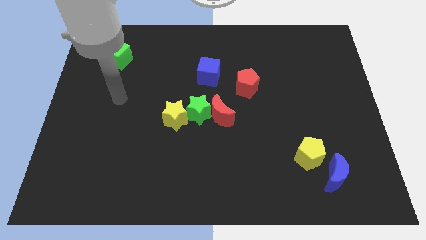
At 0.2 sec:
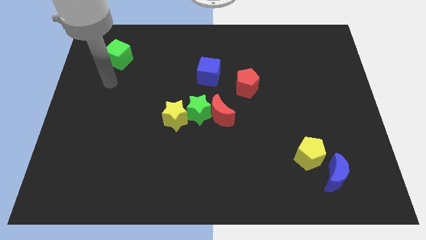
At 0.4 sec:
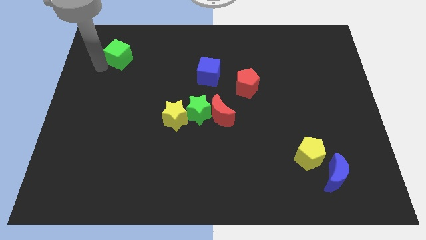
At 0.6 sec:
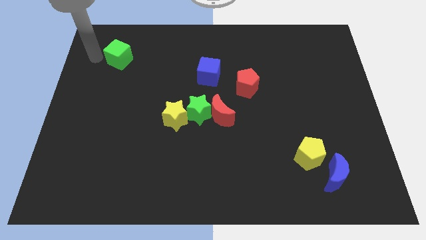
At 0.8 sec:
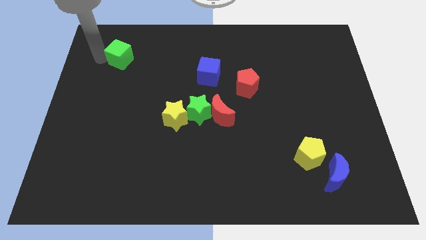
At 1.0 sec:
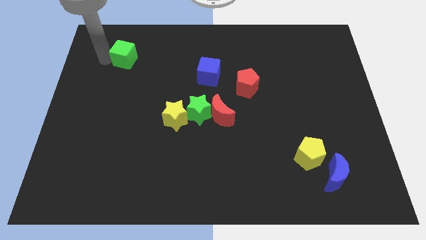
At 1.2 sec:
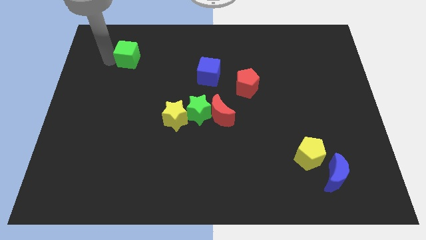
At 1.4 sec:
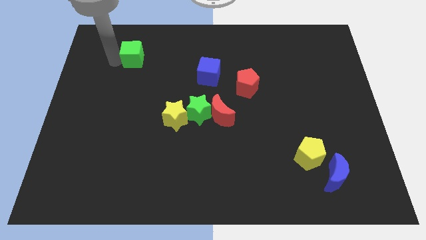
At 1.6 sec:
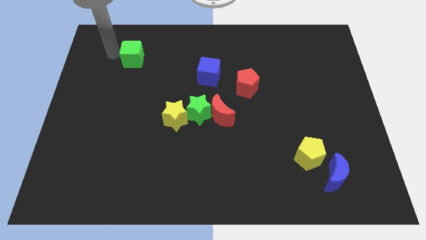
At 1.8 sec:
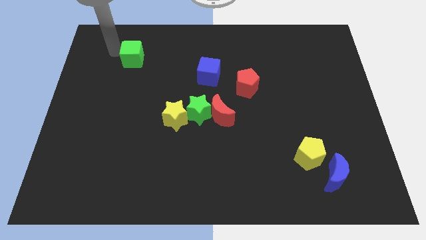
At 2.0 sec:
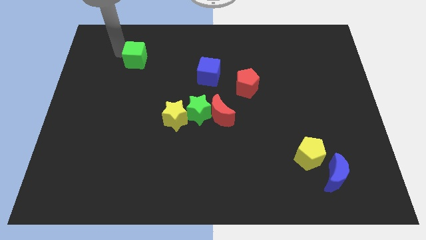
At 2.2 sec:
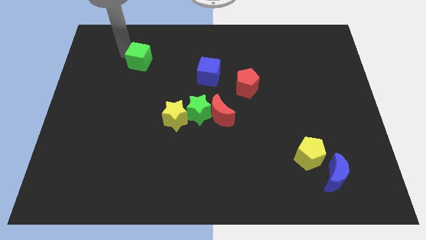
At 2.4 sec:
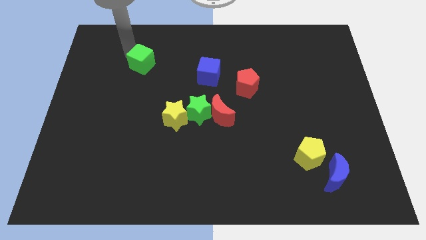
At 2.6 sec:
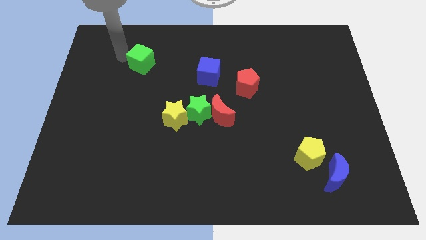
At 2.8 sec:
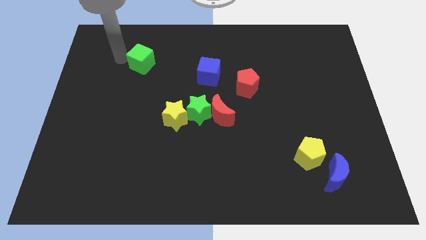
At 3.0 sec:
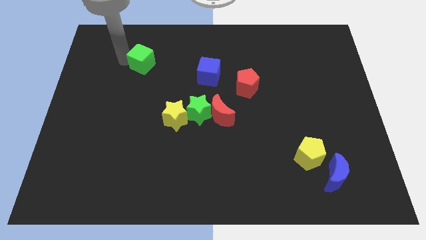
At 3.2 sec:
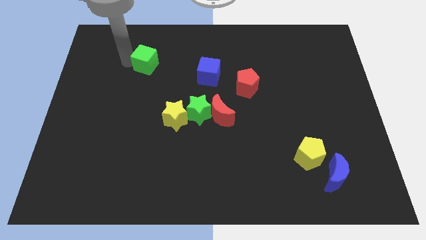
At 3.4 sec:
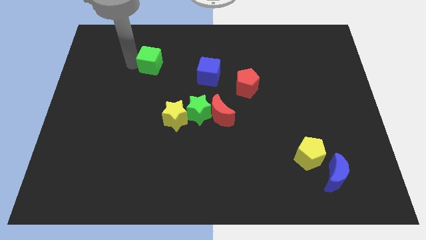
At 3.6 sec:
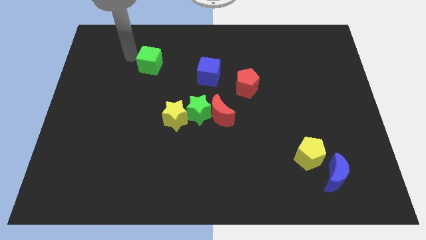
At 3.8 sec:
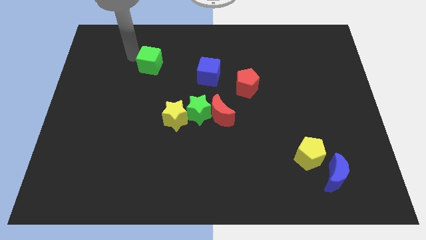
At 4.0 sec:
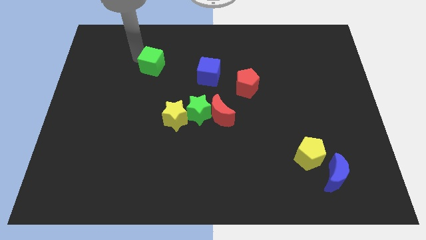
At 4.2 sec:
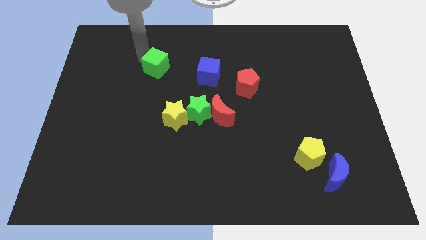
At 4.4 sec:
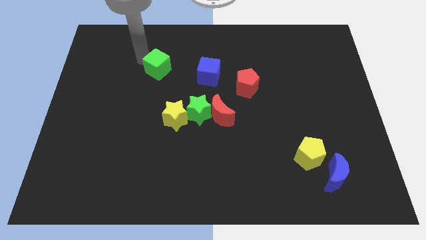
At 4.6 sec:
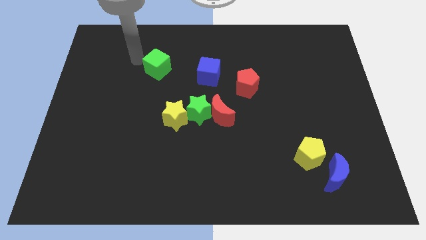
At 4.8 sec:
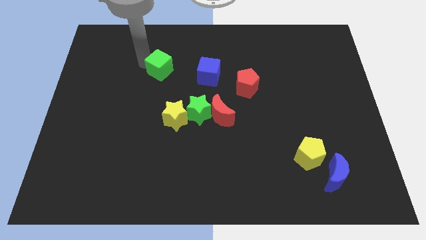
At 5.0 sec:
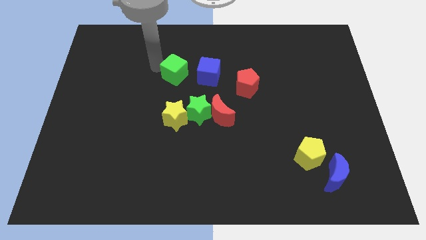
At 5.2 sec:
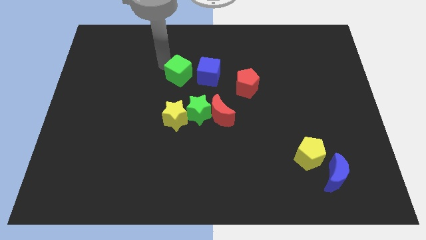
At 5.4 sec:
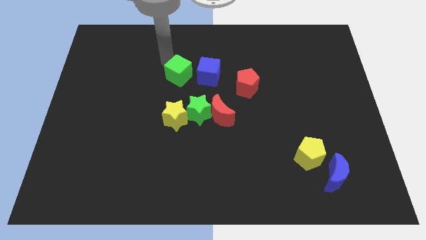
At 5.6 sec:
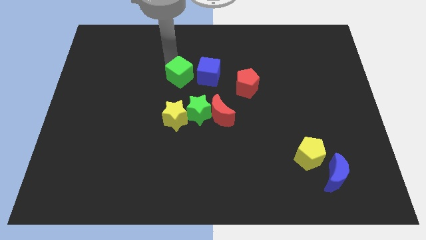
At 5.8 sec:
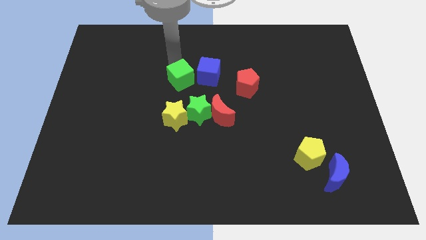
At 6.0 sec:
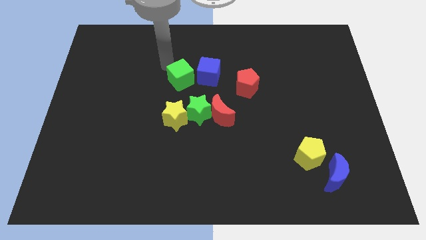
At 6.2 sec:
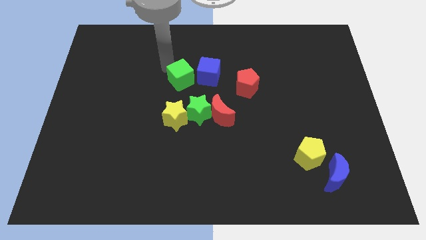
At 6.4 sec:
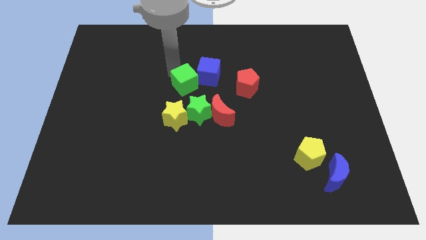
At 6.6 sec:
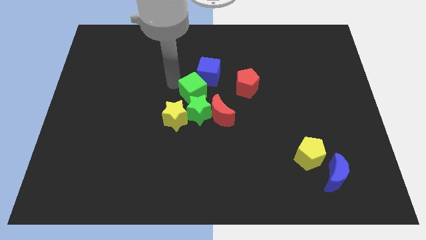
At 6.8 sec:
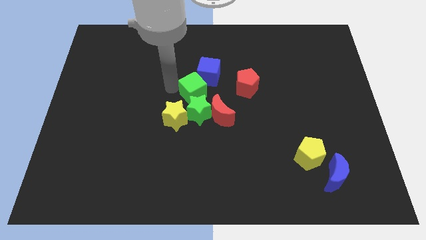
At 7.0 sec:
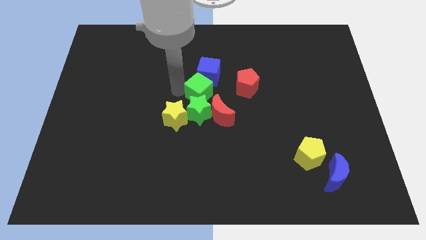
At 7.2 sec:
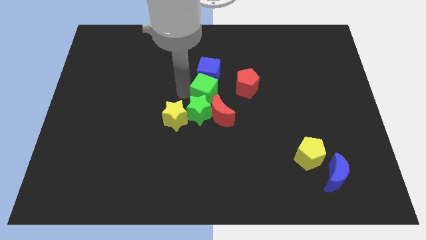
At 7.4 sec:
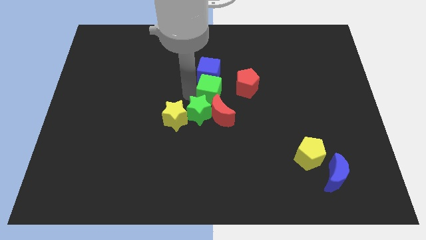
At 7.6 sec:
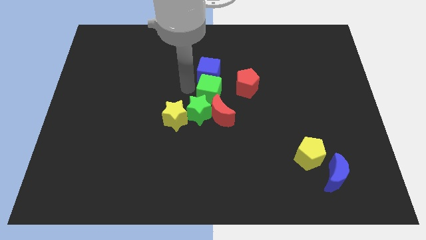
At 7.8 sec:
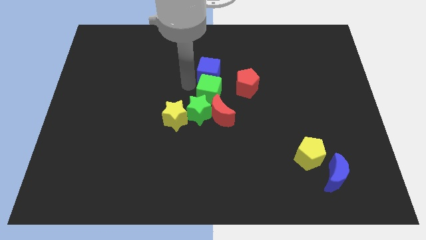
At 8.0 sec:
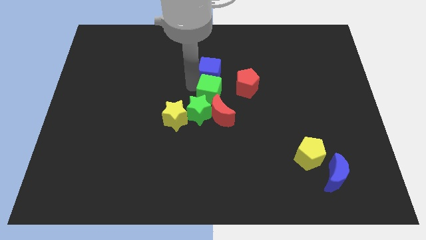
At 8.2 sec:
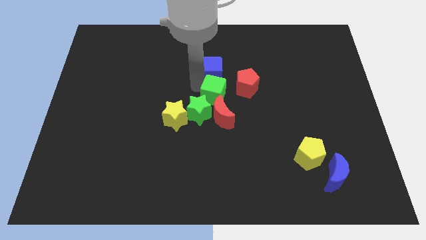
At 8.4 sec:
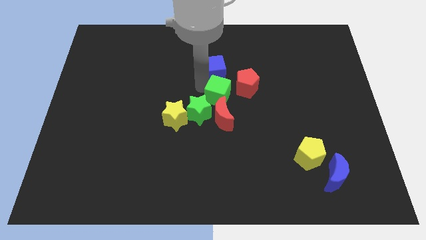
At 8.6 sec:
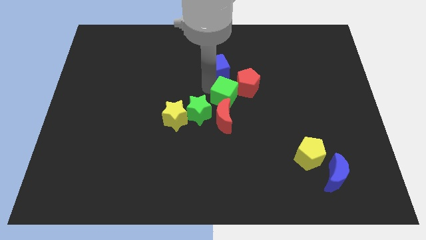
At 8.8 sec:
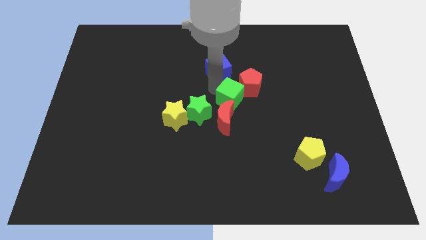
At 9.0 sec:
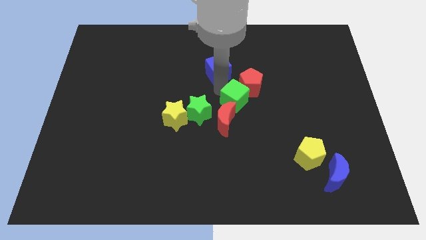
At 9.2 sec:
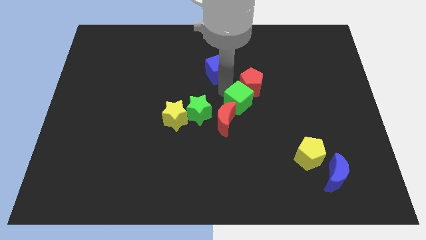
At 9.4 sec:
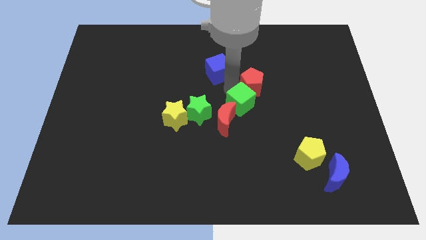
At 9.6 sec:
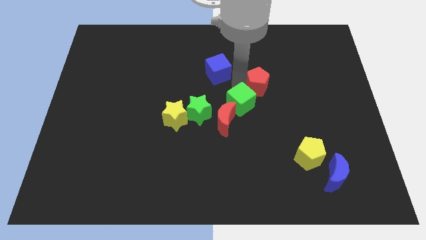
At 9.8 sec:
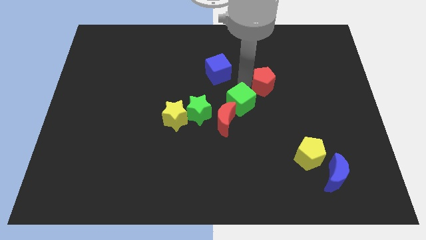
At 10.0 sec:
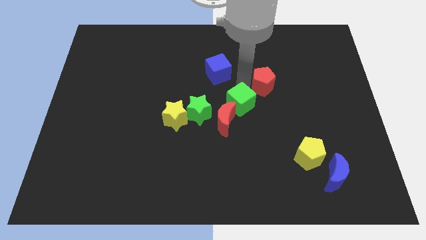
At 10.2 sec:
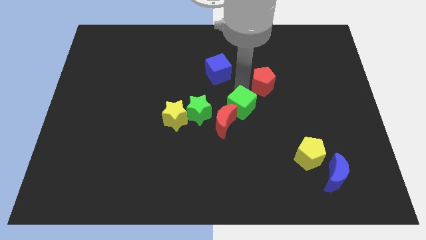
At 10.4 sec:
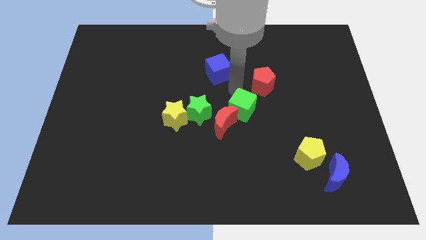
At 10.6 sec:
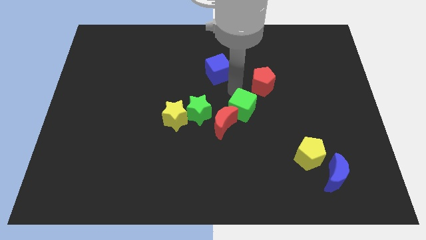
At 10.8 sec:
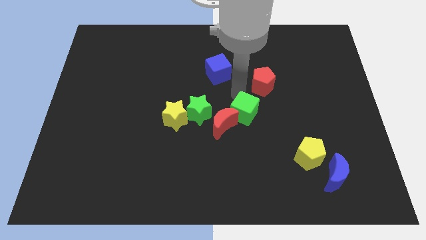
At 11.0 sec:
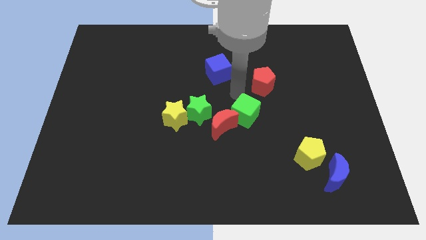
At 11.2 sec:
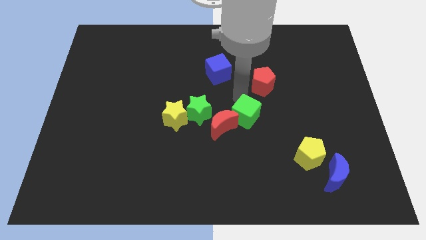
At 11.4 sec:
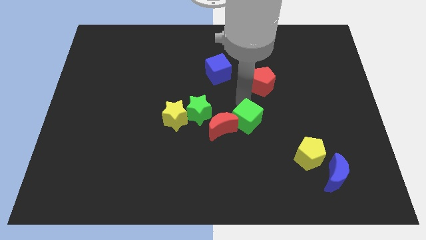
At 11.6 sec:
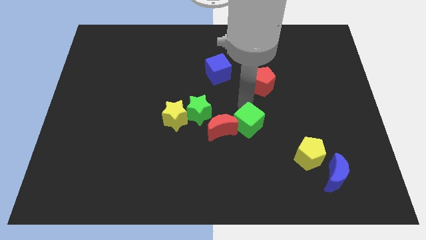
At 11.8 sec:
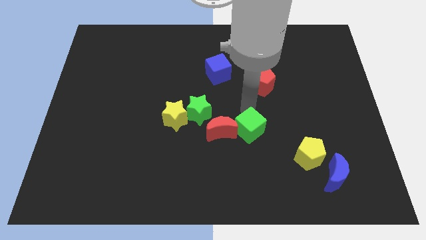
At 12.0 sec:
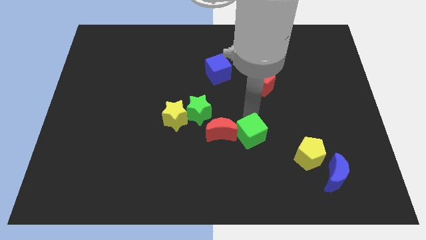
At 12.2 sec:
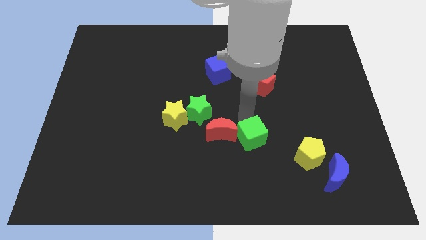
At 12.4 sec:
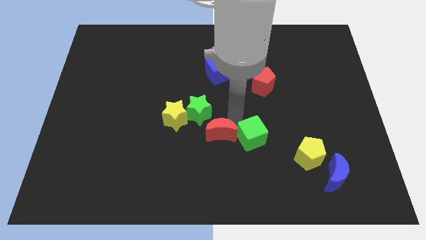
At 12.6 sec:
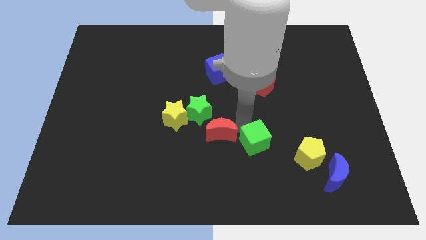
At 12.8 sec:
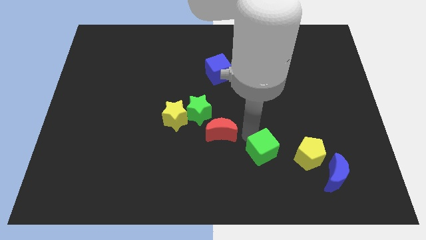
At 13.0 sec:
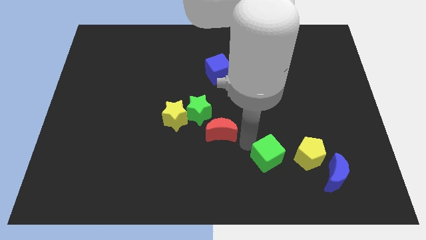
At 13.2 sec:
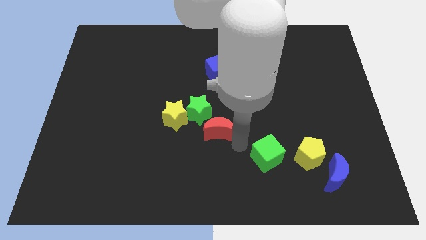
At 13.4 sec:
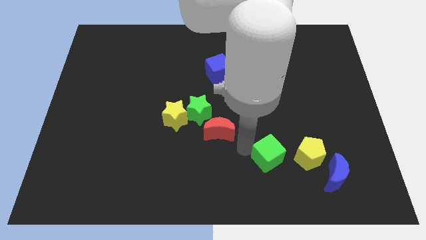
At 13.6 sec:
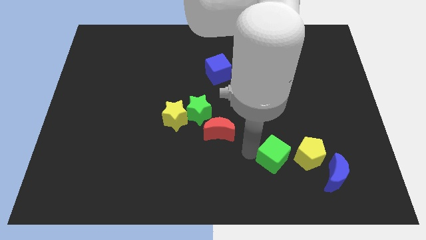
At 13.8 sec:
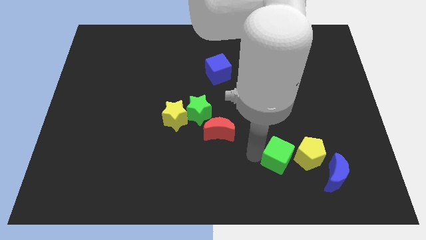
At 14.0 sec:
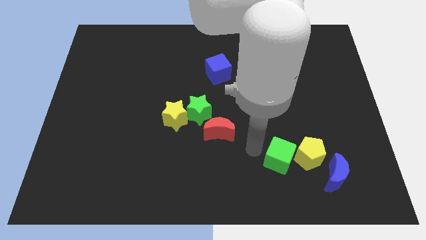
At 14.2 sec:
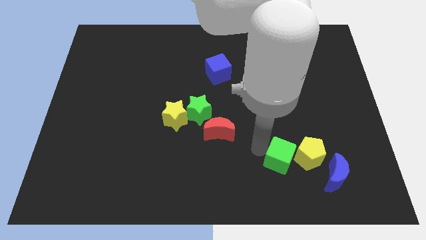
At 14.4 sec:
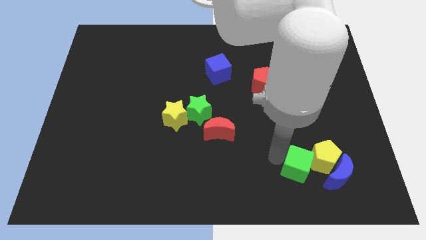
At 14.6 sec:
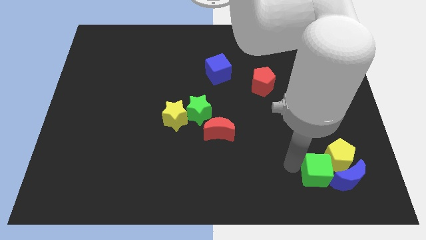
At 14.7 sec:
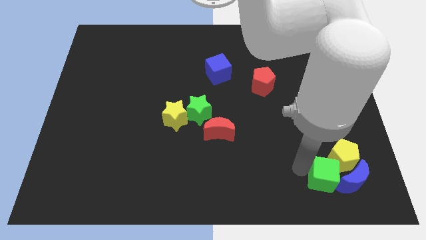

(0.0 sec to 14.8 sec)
put the green cube towards the blue moon

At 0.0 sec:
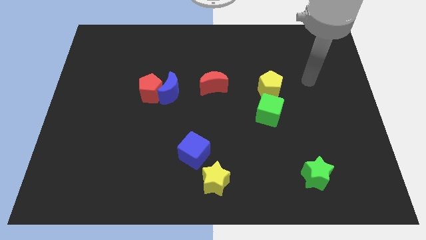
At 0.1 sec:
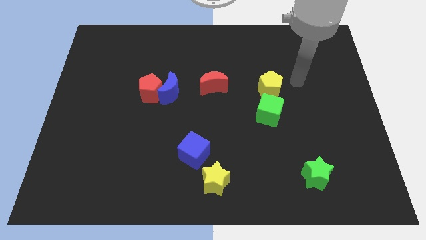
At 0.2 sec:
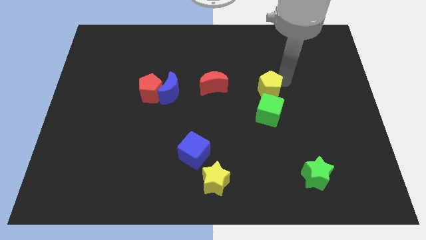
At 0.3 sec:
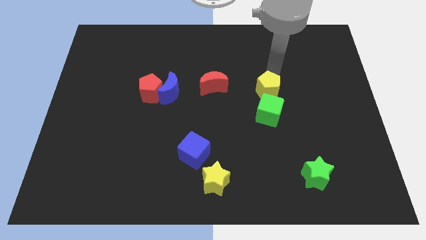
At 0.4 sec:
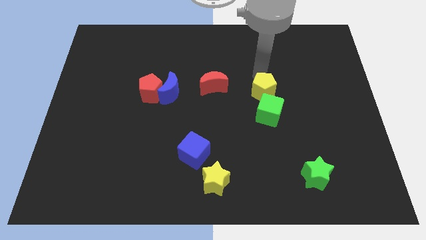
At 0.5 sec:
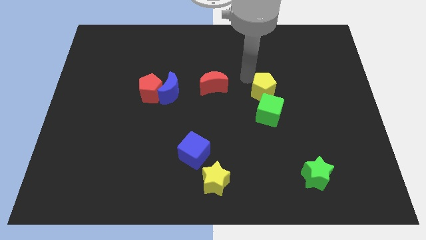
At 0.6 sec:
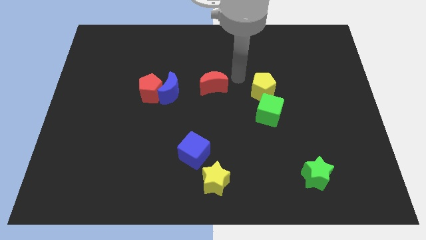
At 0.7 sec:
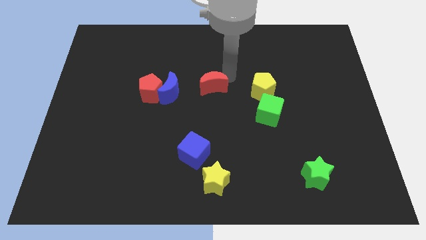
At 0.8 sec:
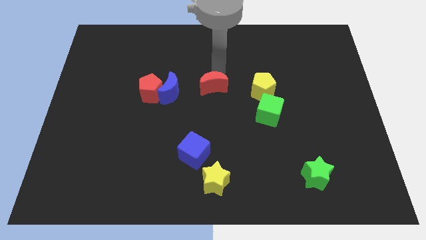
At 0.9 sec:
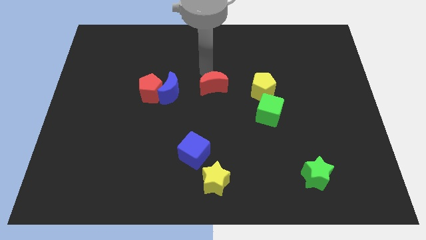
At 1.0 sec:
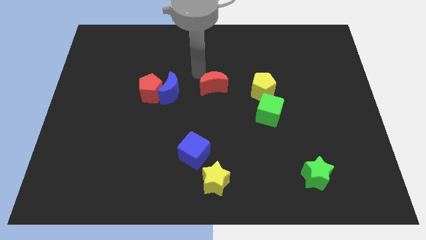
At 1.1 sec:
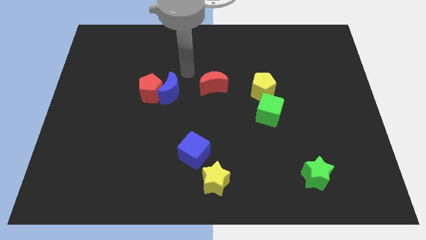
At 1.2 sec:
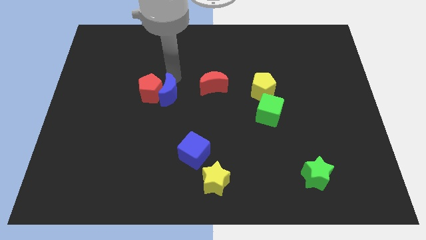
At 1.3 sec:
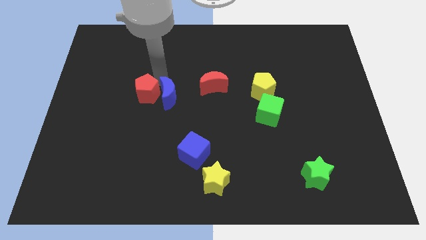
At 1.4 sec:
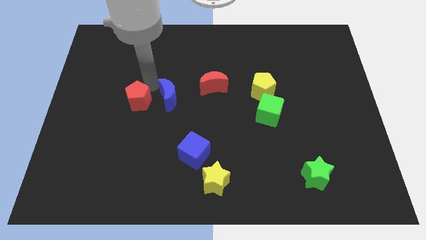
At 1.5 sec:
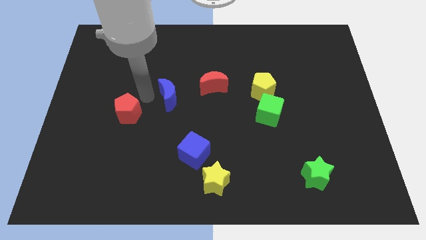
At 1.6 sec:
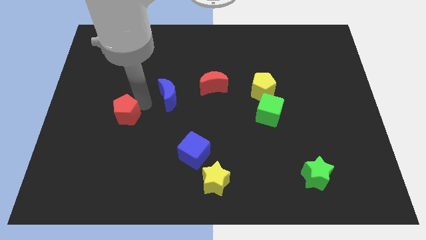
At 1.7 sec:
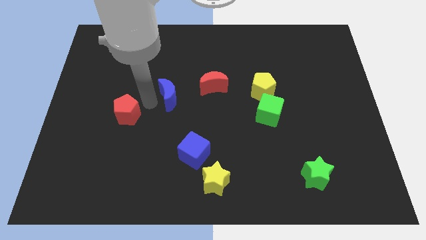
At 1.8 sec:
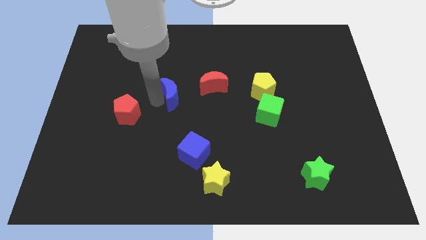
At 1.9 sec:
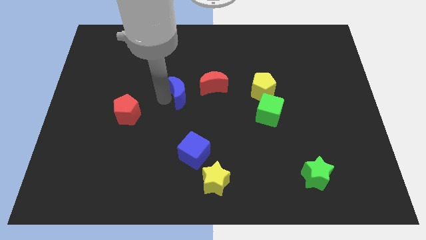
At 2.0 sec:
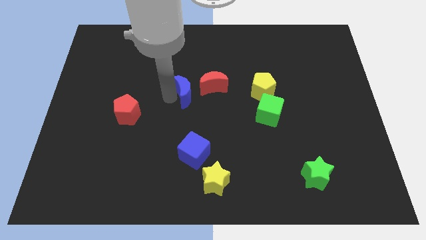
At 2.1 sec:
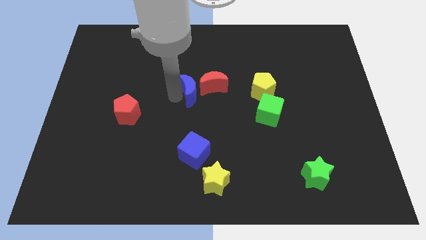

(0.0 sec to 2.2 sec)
put the blue moon next to the red moon
